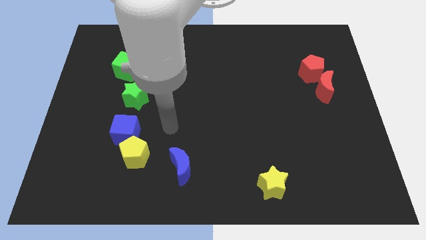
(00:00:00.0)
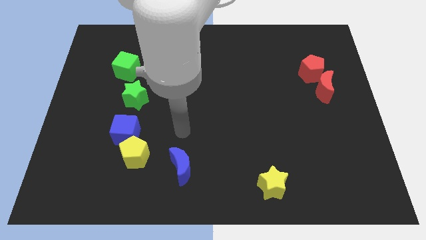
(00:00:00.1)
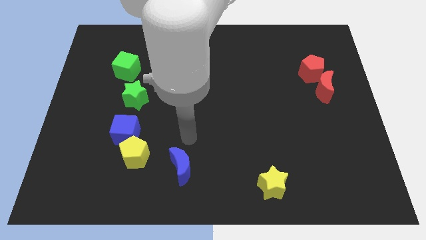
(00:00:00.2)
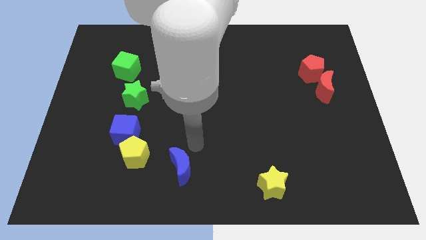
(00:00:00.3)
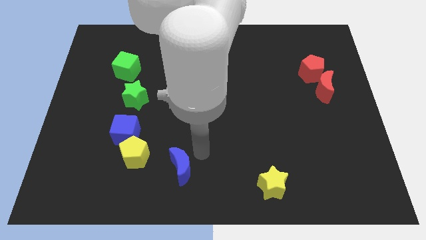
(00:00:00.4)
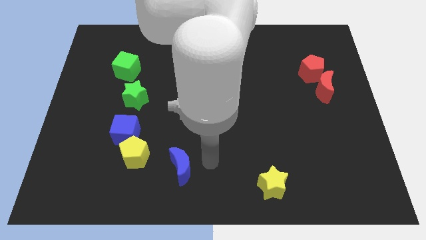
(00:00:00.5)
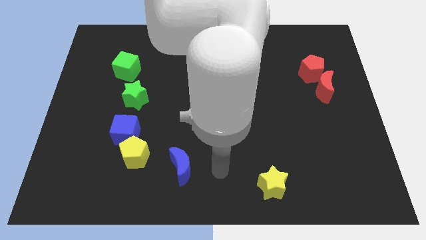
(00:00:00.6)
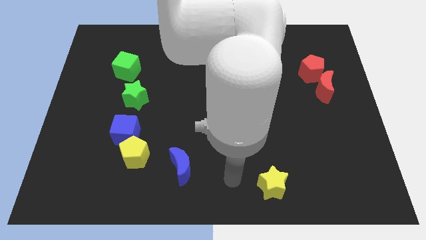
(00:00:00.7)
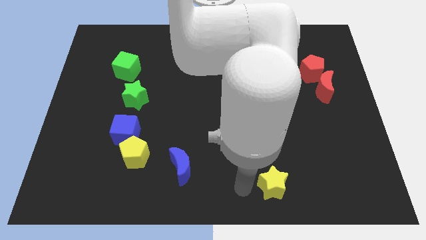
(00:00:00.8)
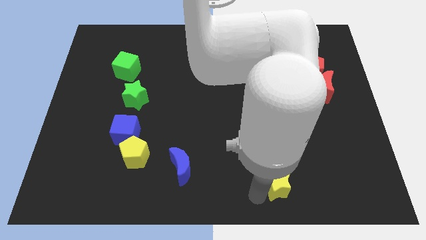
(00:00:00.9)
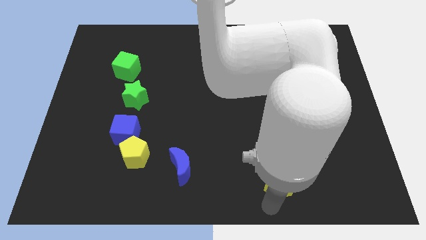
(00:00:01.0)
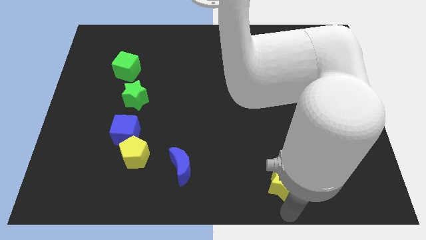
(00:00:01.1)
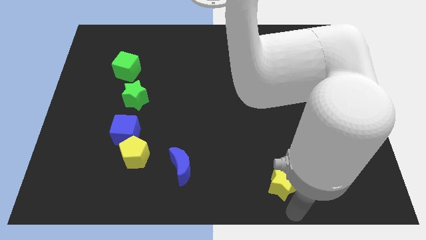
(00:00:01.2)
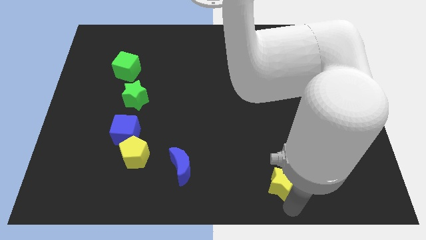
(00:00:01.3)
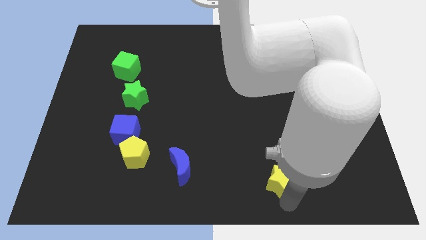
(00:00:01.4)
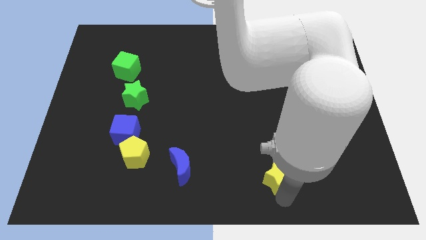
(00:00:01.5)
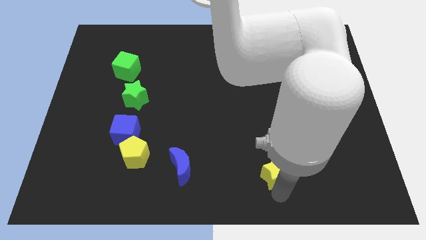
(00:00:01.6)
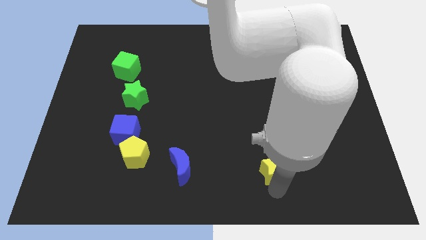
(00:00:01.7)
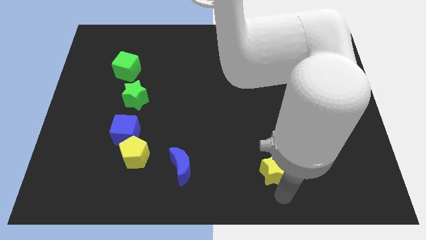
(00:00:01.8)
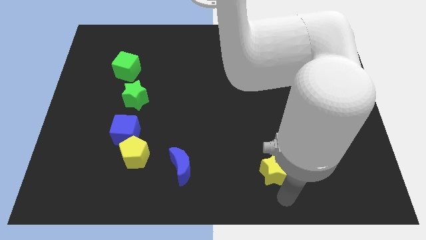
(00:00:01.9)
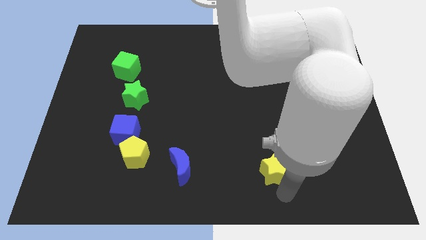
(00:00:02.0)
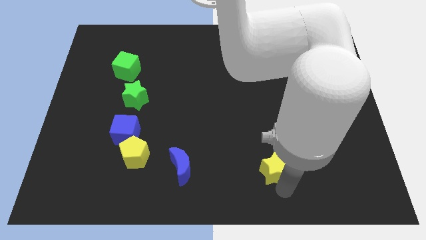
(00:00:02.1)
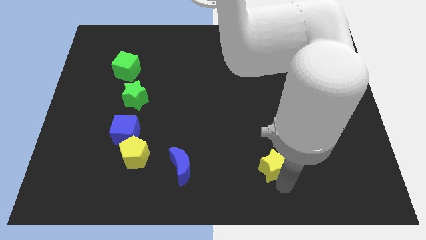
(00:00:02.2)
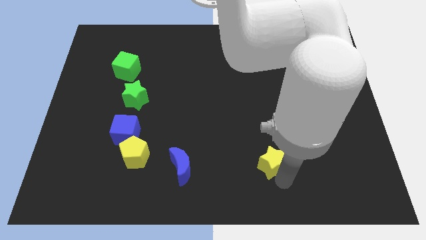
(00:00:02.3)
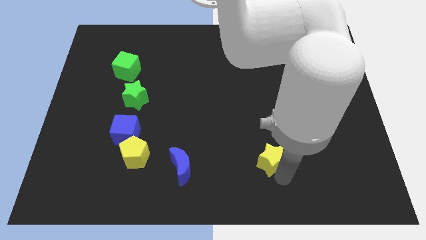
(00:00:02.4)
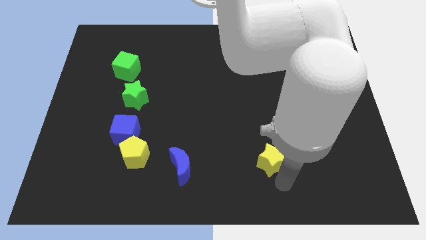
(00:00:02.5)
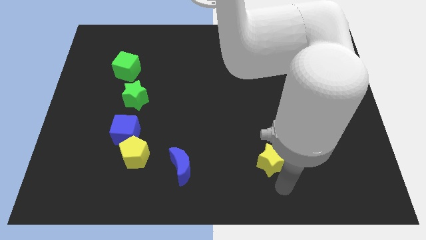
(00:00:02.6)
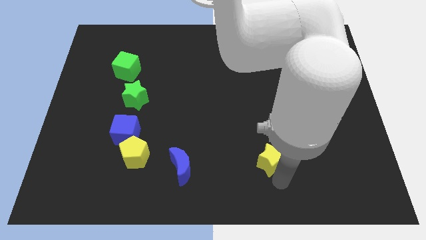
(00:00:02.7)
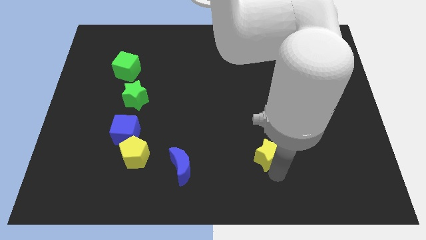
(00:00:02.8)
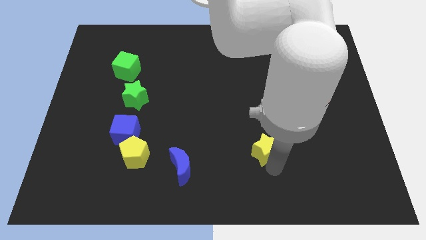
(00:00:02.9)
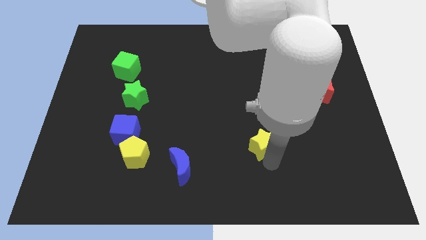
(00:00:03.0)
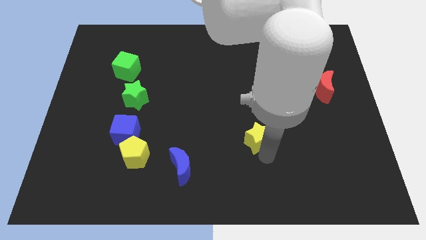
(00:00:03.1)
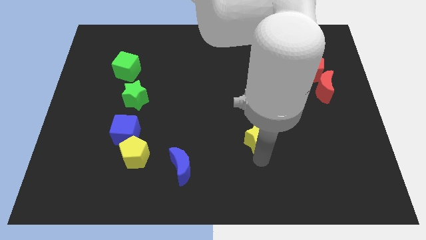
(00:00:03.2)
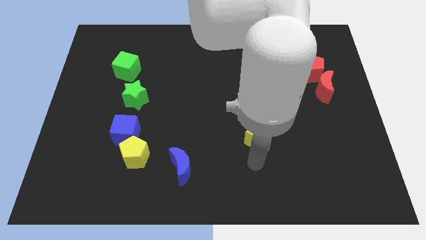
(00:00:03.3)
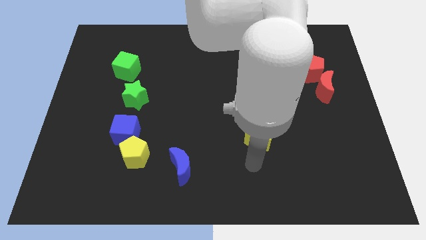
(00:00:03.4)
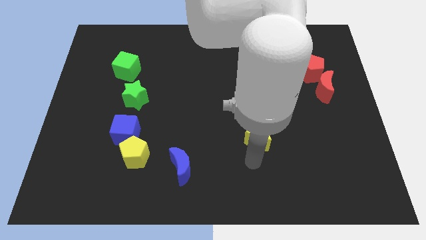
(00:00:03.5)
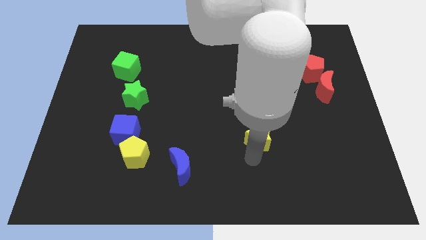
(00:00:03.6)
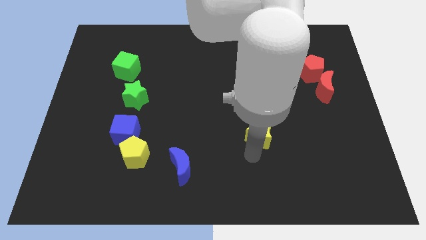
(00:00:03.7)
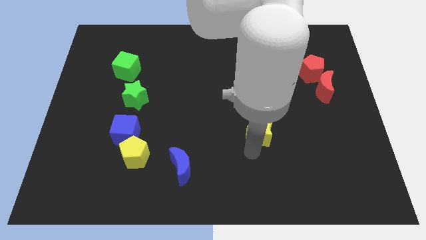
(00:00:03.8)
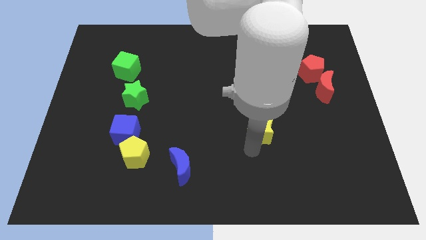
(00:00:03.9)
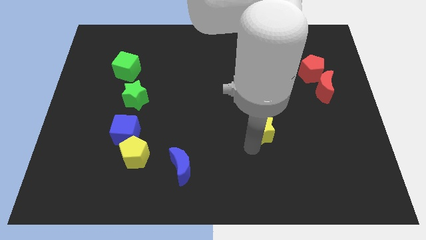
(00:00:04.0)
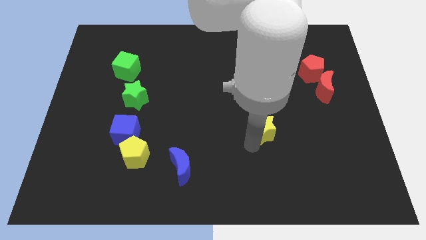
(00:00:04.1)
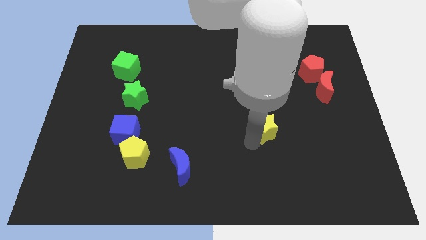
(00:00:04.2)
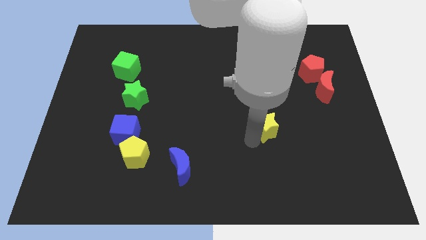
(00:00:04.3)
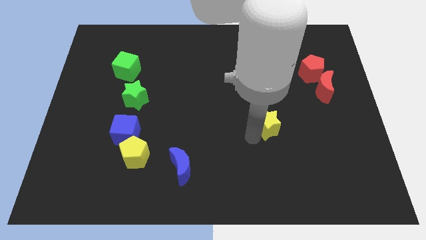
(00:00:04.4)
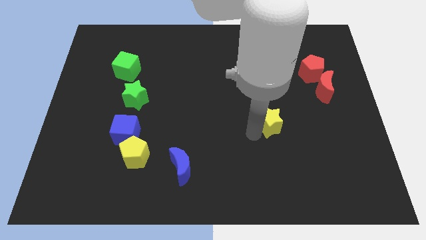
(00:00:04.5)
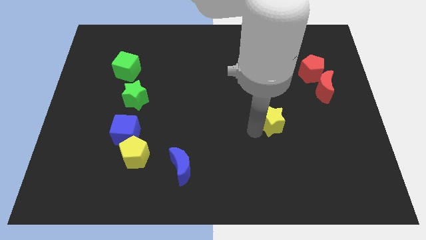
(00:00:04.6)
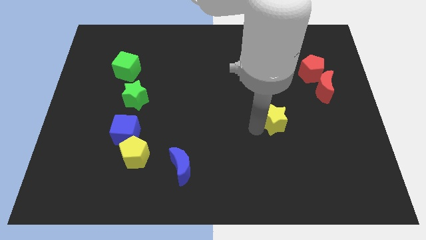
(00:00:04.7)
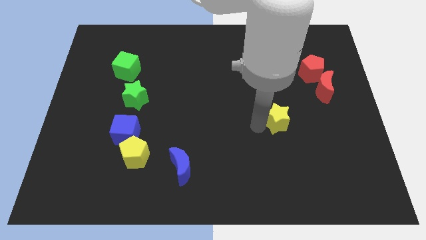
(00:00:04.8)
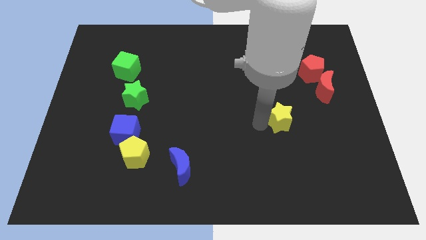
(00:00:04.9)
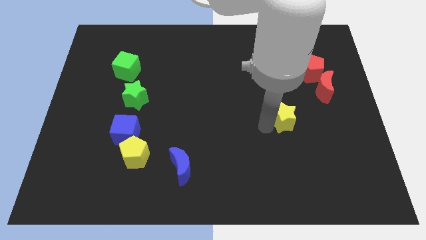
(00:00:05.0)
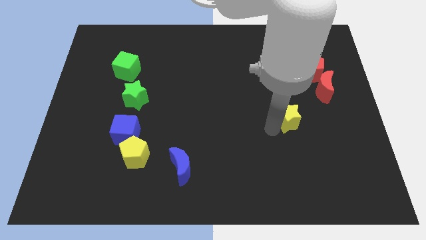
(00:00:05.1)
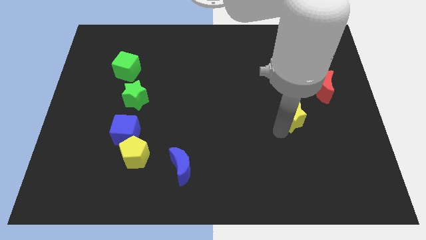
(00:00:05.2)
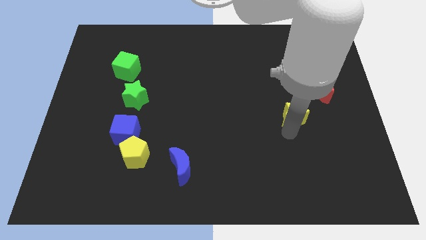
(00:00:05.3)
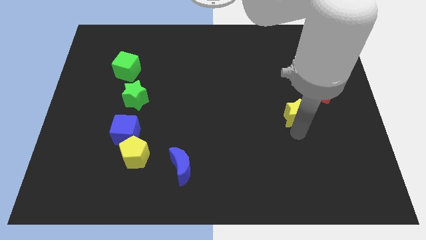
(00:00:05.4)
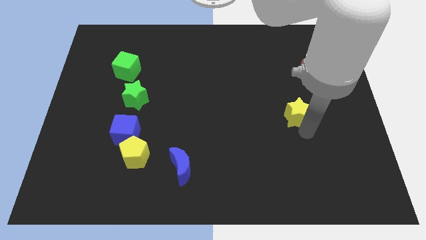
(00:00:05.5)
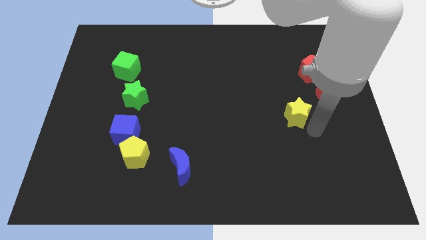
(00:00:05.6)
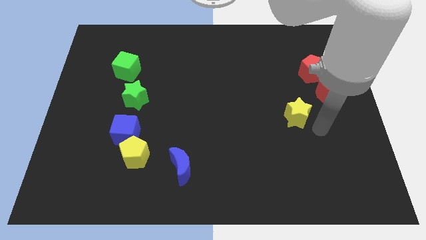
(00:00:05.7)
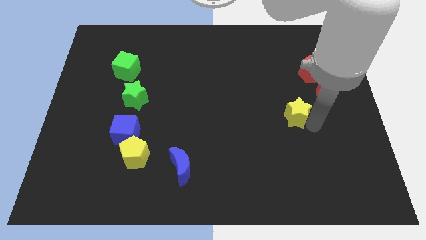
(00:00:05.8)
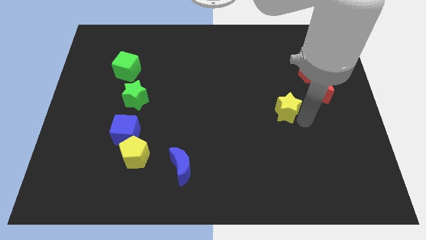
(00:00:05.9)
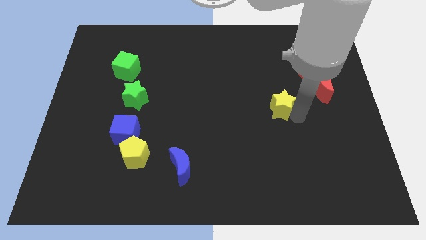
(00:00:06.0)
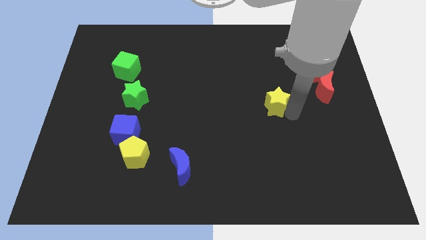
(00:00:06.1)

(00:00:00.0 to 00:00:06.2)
move the yellow star up

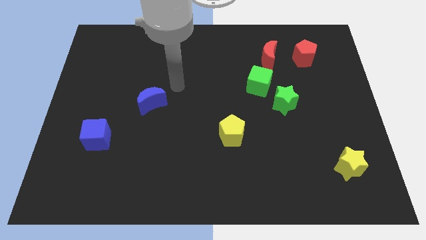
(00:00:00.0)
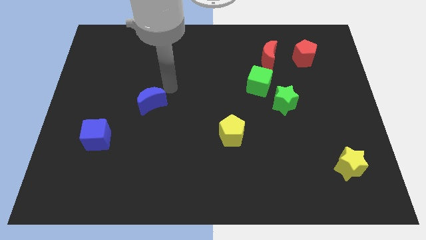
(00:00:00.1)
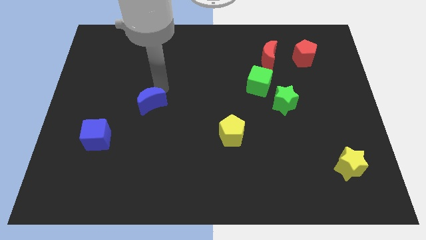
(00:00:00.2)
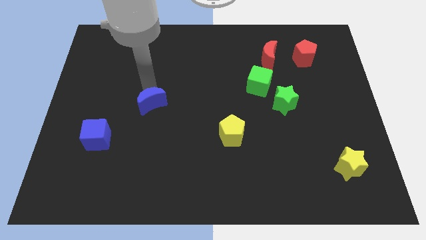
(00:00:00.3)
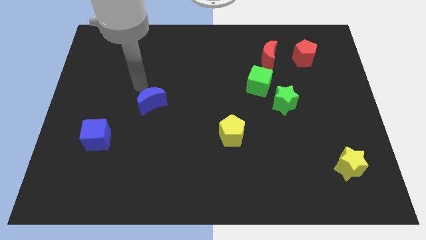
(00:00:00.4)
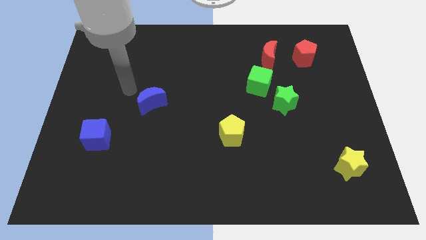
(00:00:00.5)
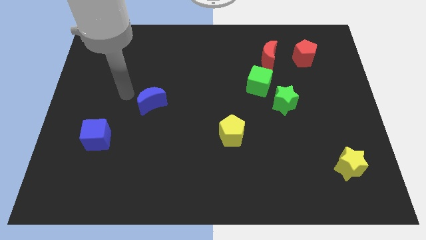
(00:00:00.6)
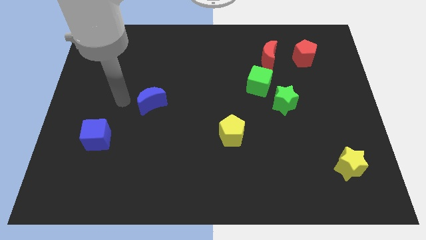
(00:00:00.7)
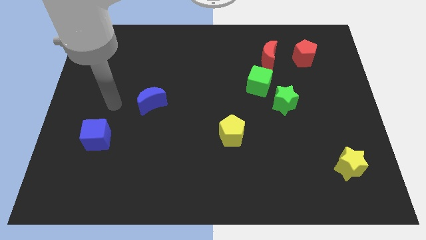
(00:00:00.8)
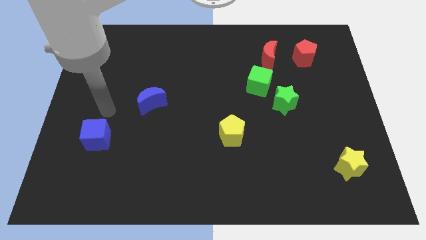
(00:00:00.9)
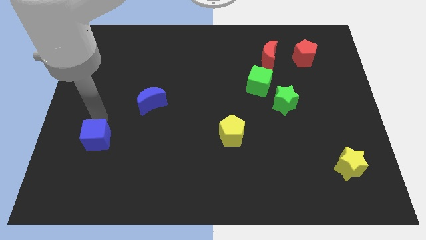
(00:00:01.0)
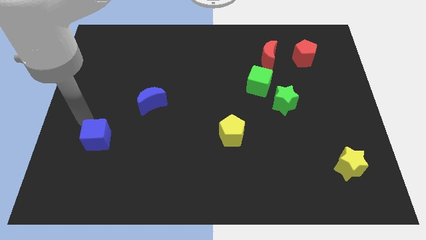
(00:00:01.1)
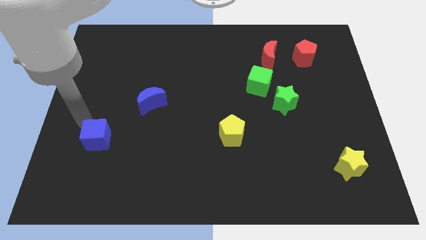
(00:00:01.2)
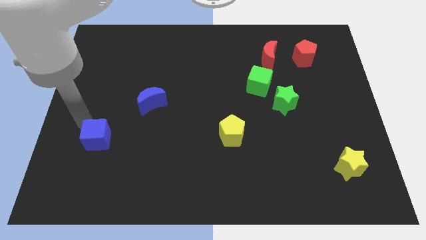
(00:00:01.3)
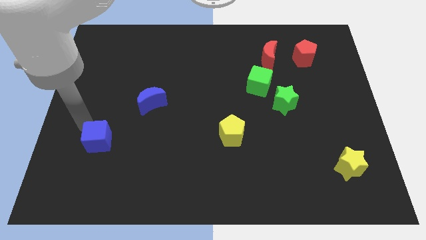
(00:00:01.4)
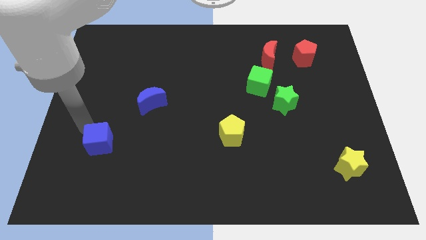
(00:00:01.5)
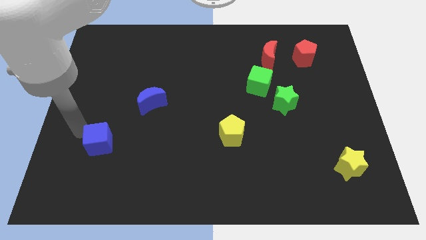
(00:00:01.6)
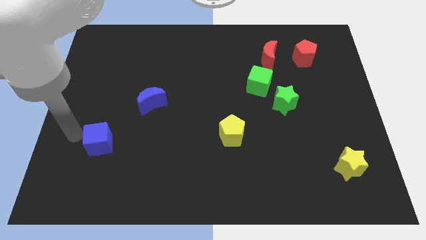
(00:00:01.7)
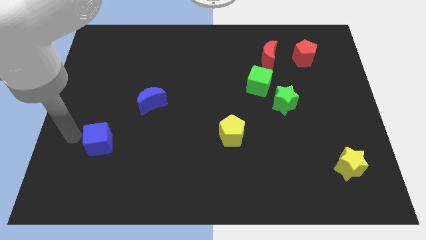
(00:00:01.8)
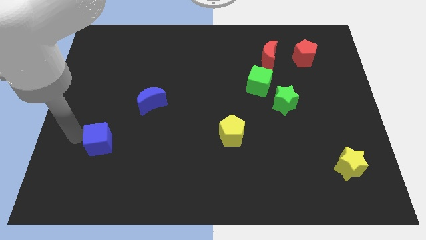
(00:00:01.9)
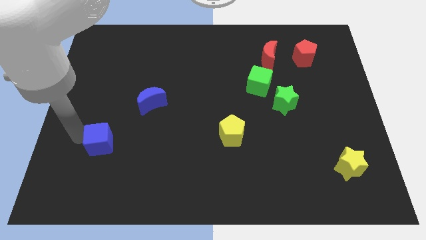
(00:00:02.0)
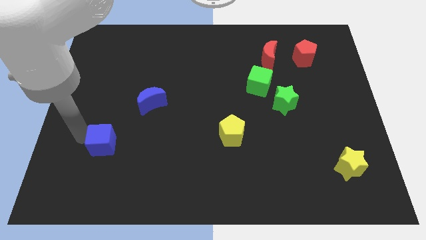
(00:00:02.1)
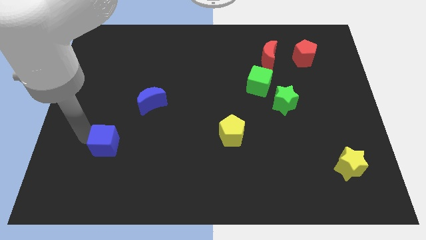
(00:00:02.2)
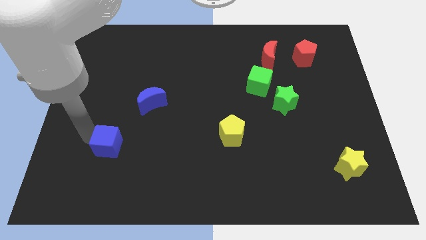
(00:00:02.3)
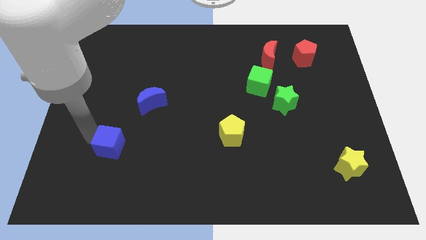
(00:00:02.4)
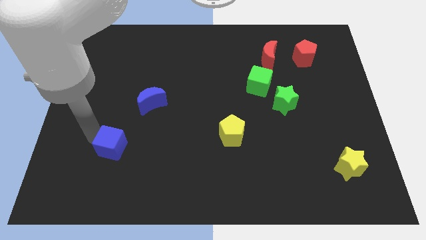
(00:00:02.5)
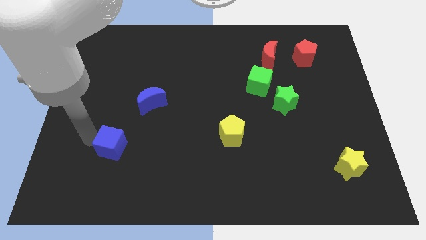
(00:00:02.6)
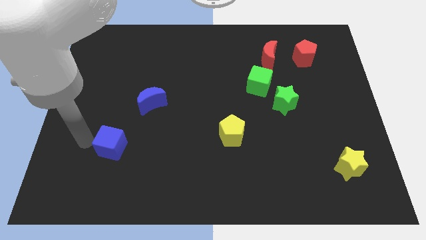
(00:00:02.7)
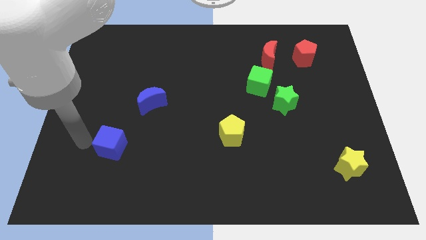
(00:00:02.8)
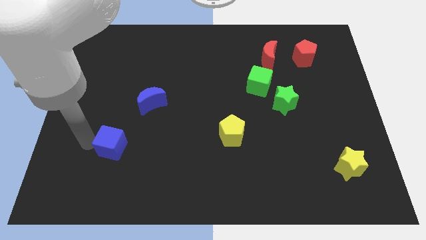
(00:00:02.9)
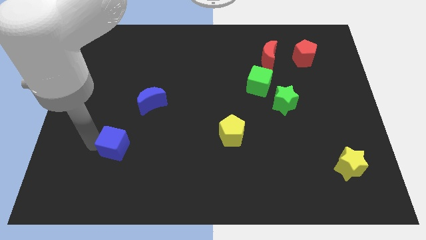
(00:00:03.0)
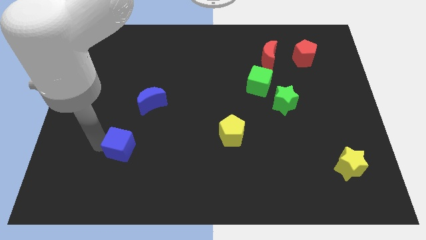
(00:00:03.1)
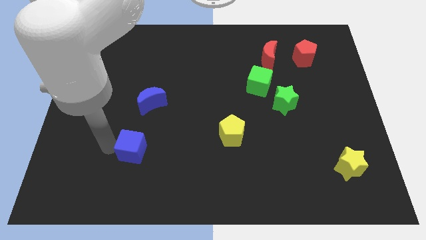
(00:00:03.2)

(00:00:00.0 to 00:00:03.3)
slightly move the blue cube to the right
